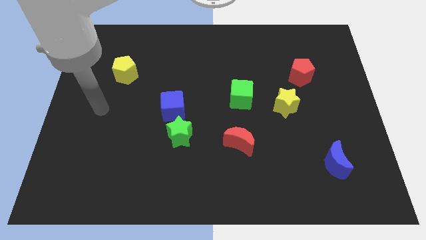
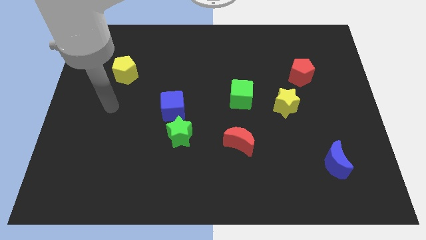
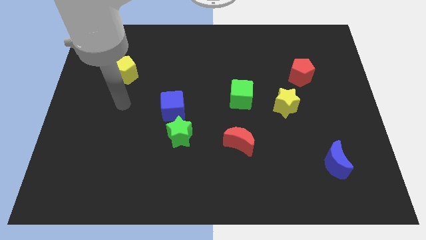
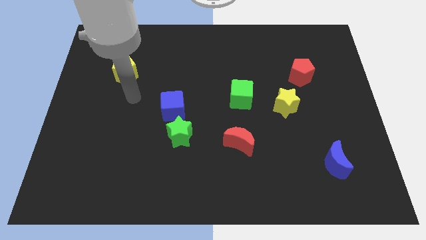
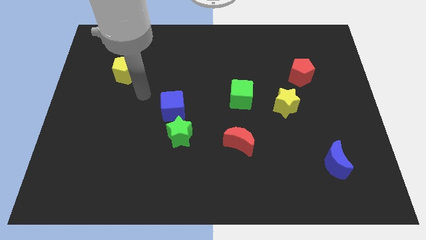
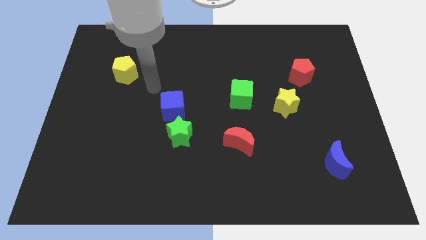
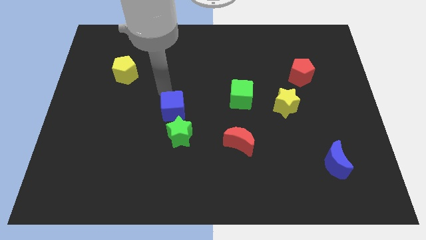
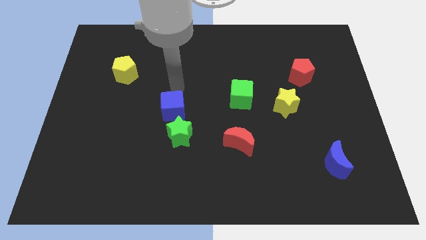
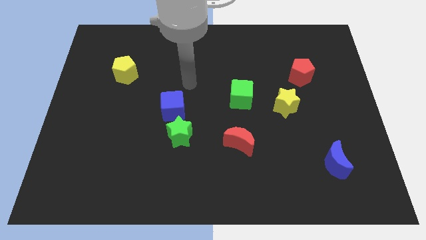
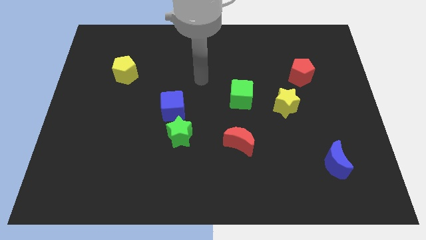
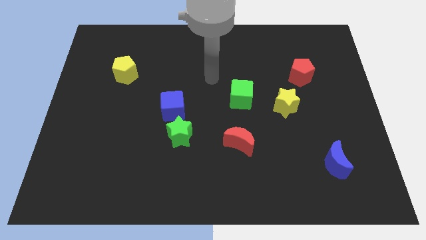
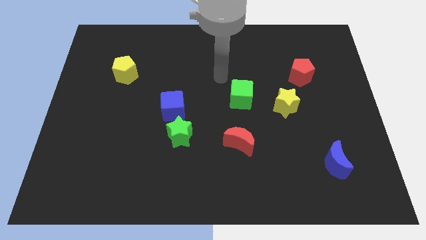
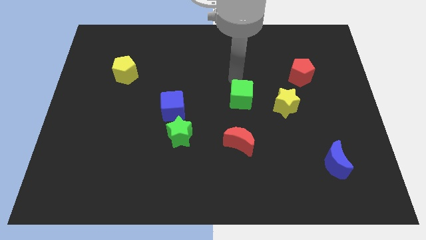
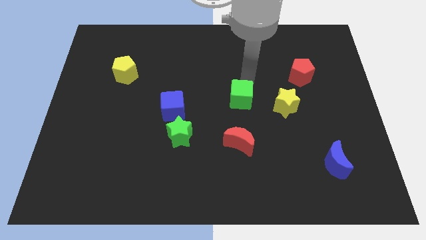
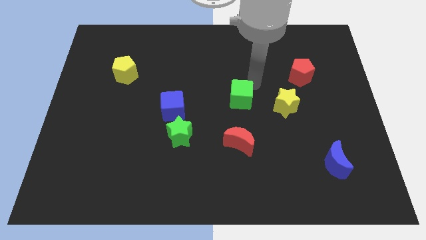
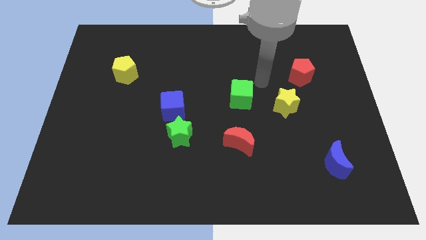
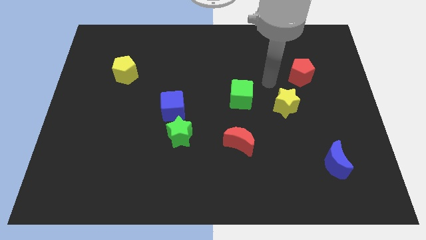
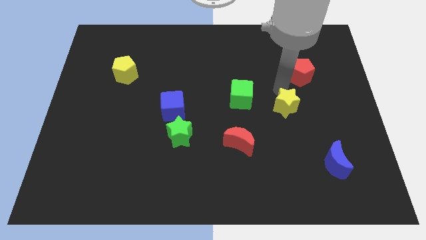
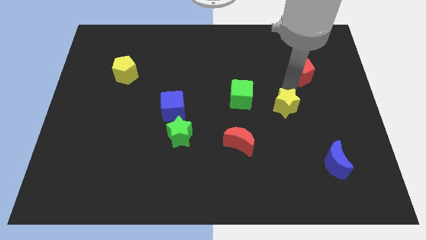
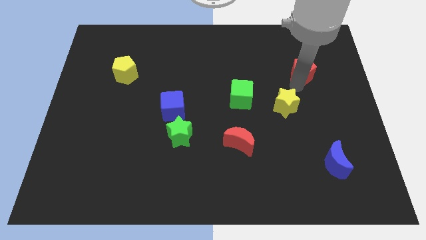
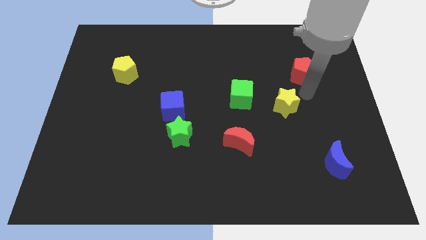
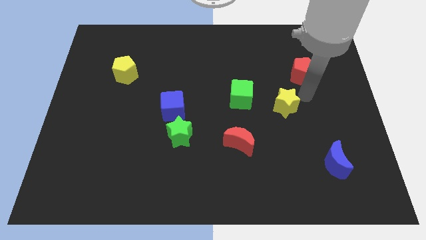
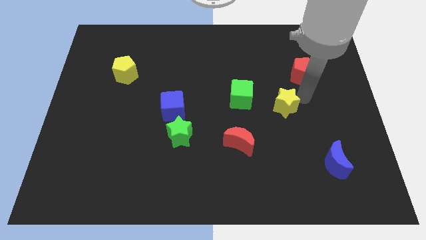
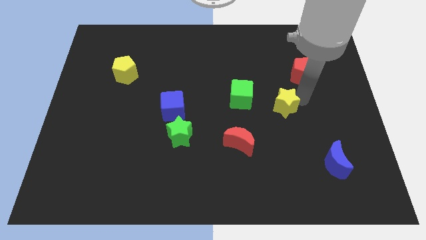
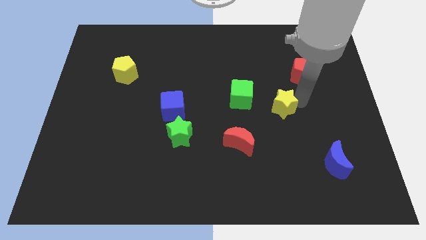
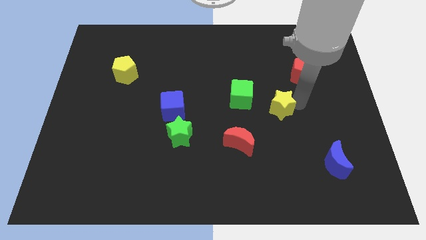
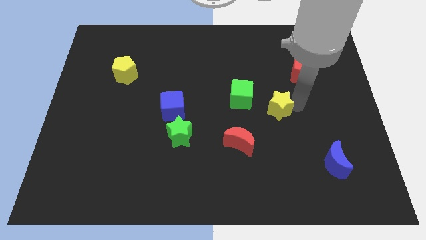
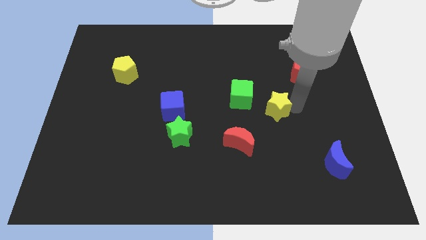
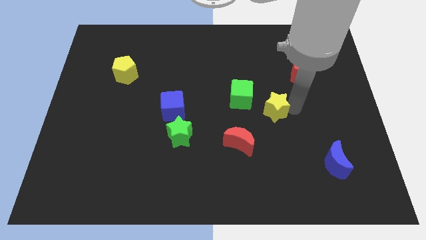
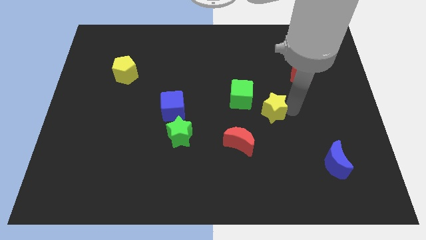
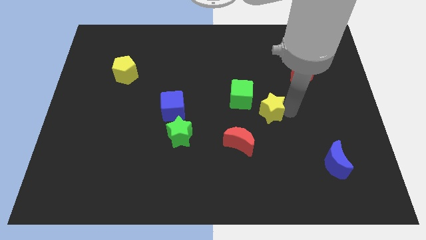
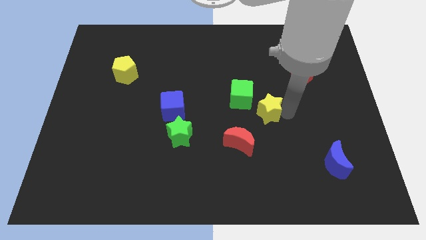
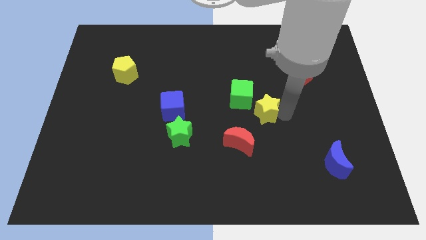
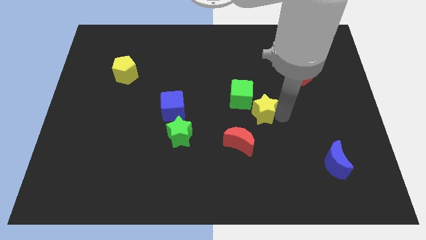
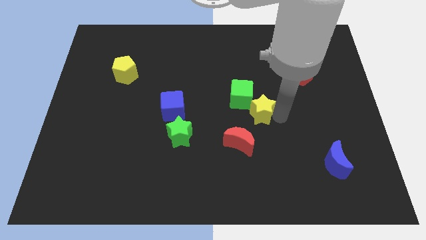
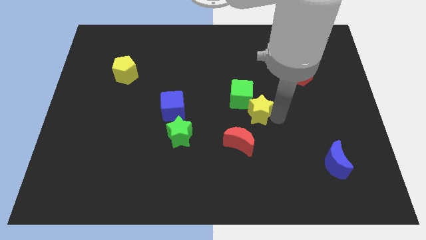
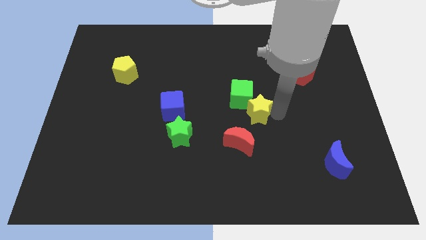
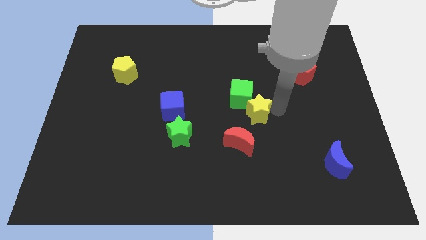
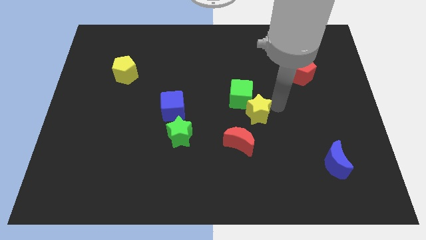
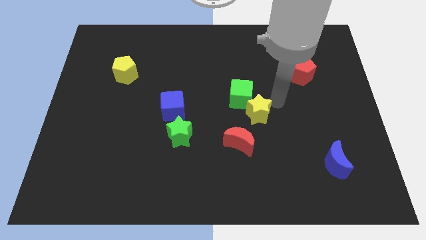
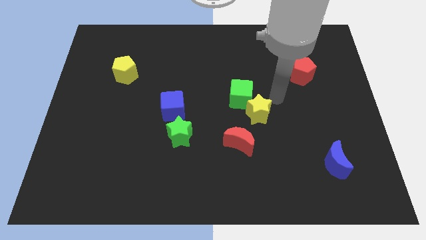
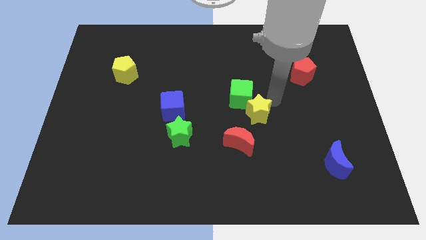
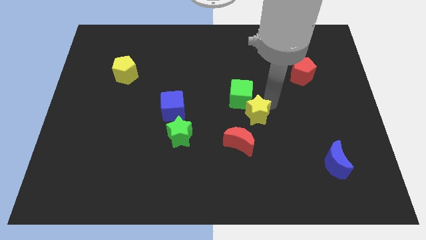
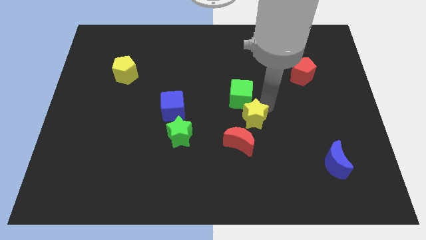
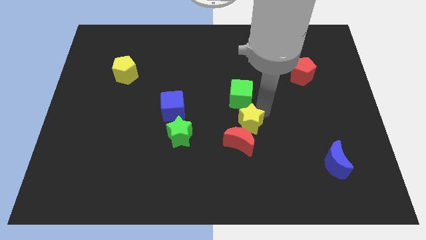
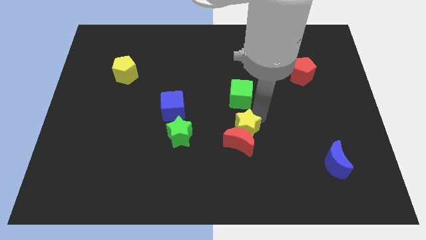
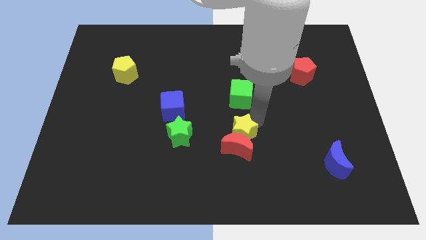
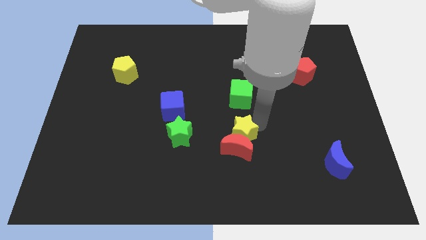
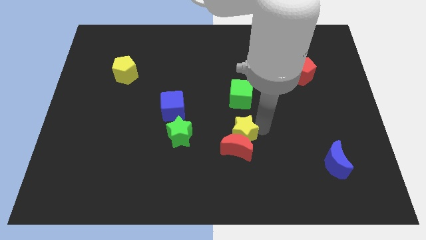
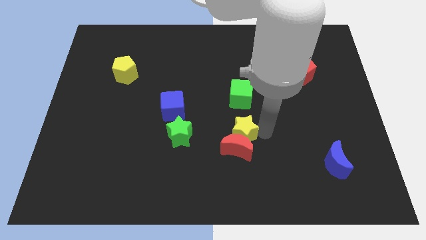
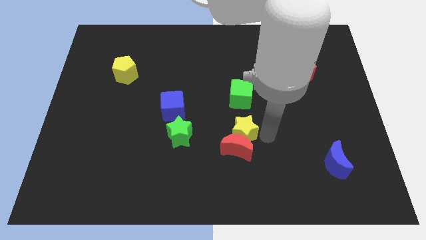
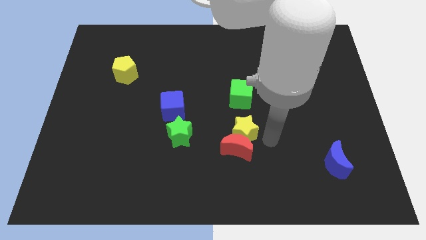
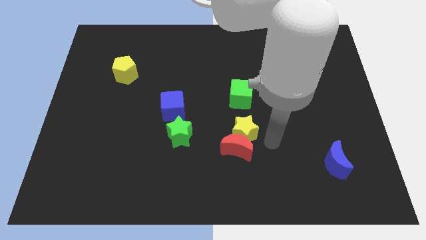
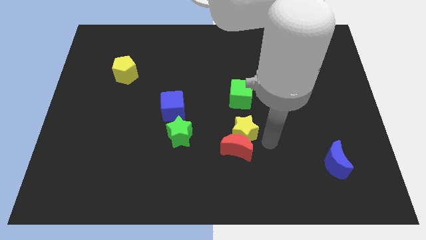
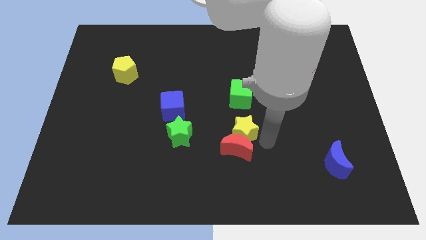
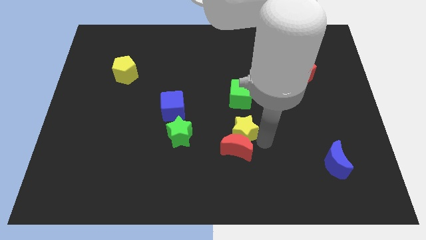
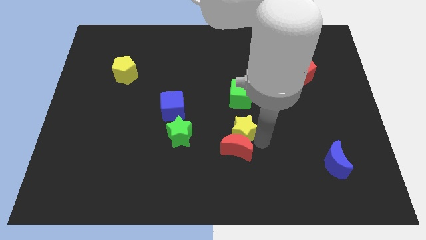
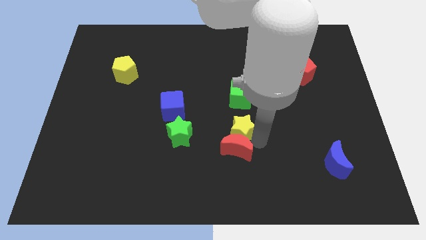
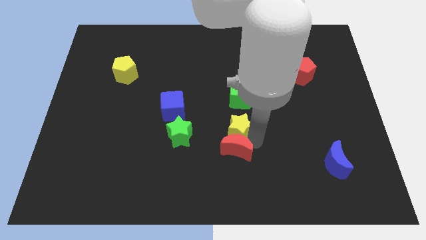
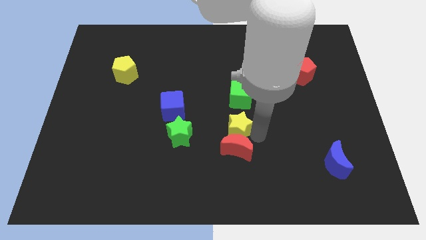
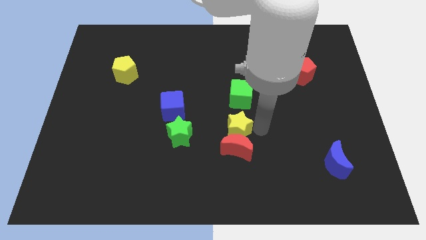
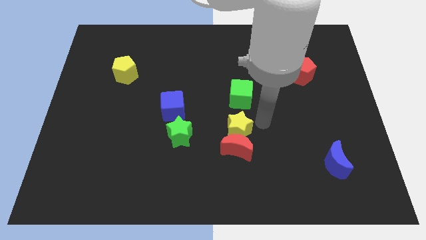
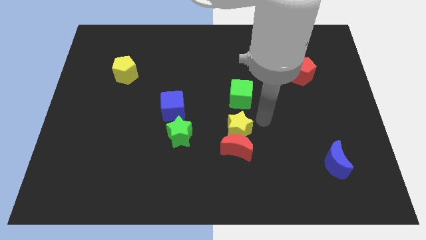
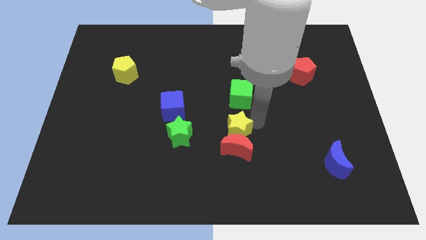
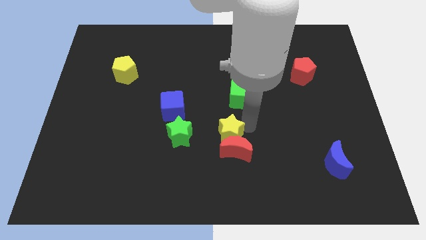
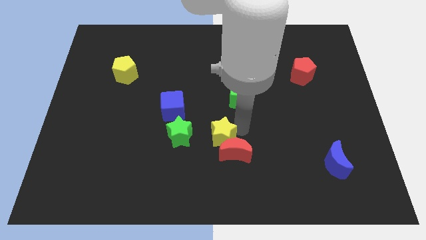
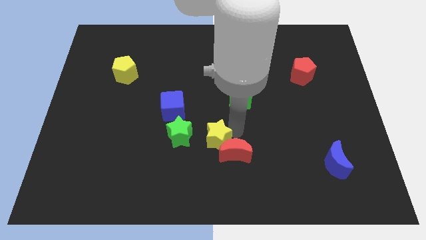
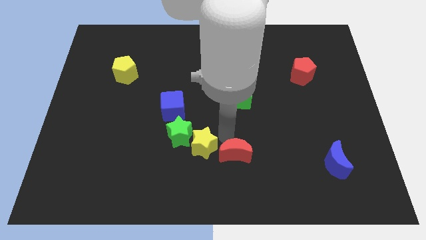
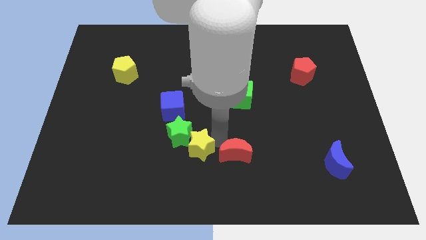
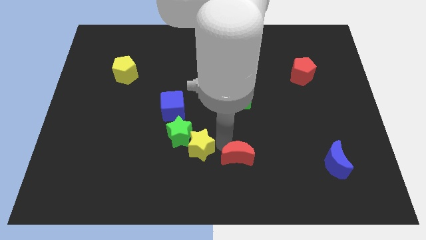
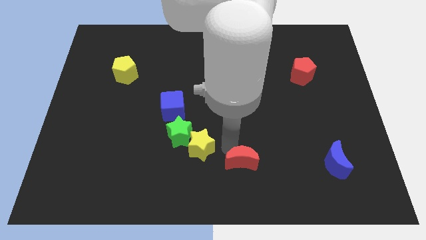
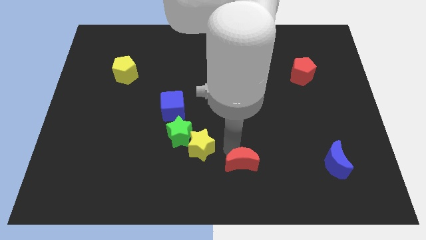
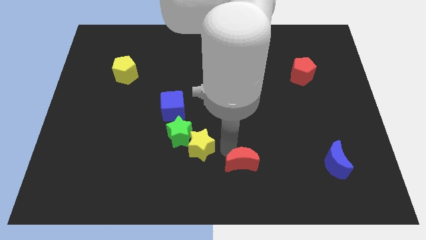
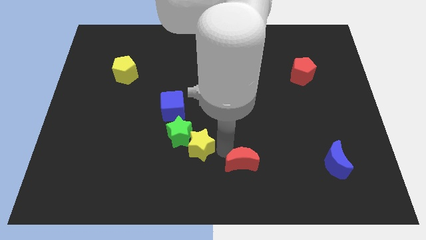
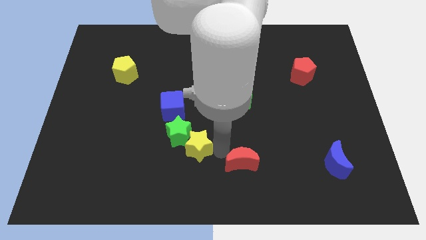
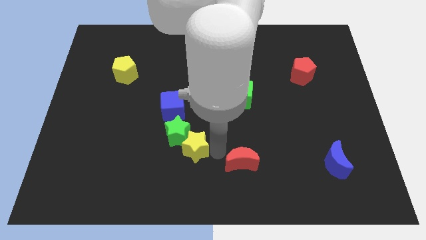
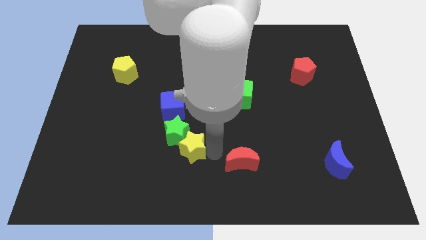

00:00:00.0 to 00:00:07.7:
slide the yellow star to the bottom of the blue cube

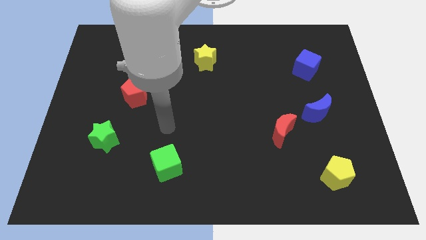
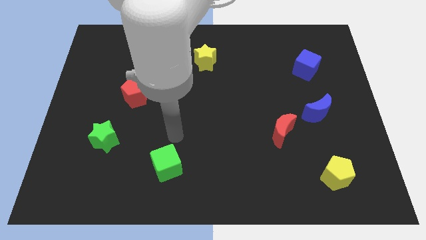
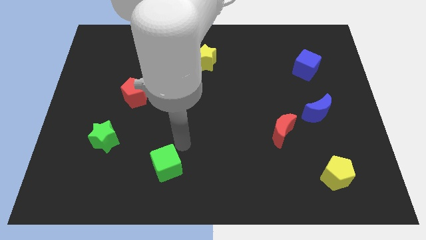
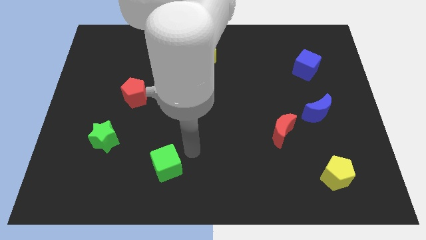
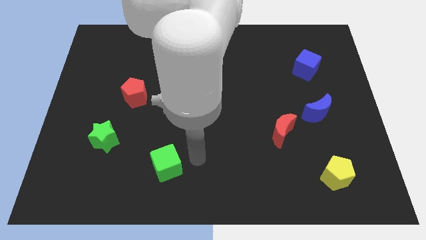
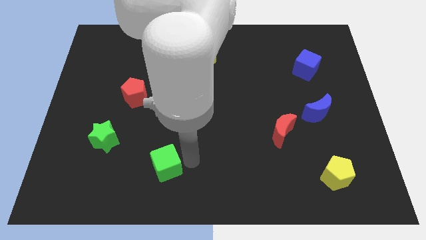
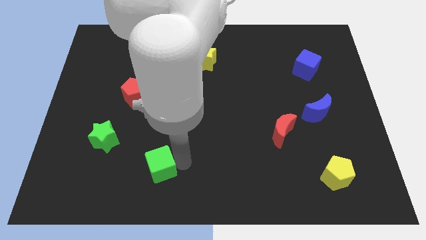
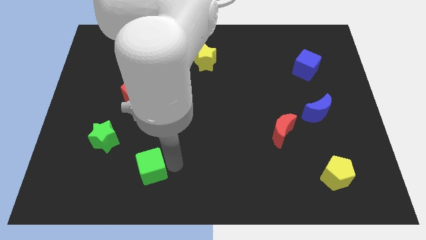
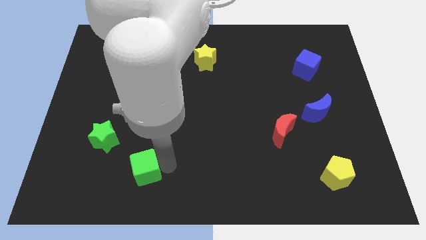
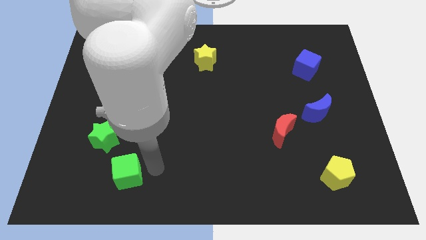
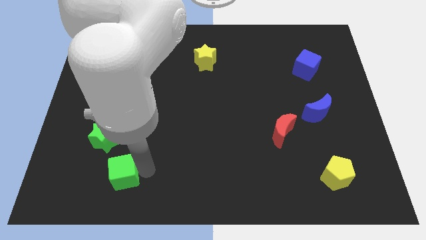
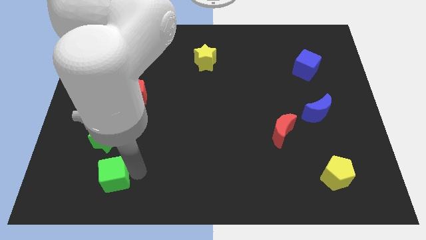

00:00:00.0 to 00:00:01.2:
put the green cube to the bottom of the green star
